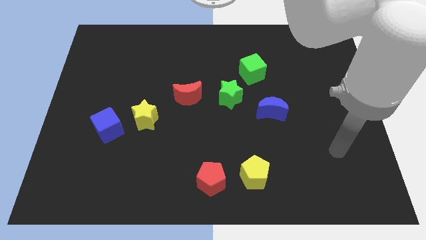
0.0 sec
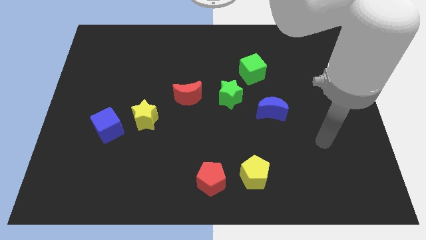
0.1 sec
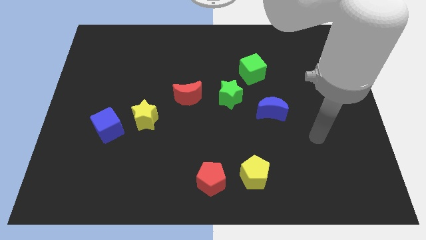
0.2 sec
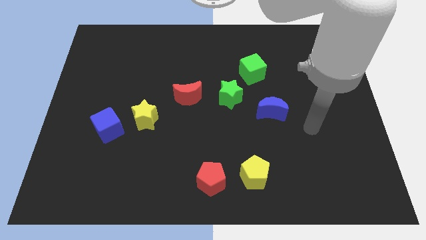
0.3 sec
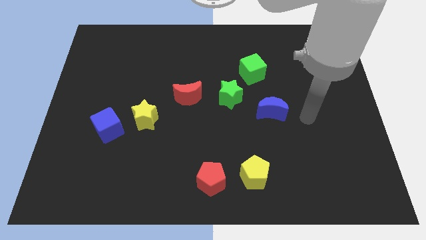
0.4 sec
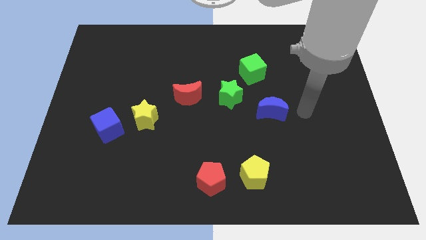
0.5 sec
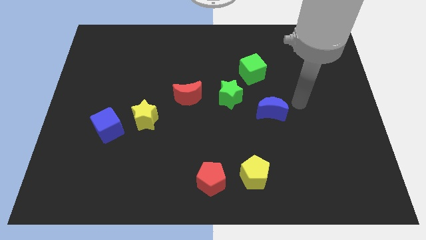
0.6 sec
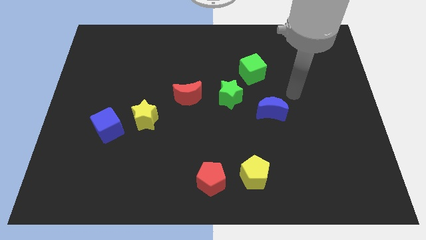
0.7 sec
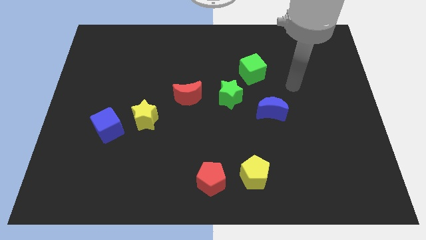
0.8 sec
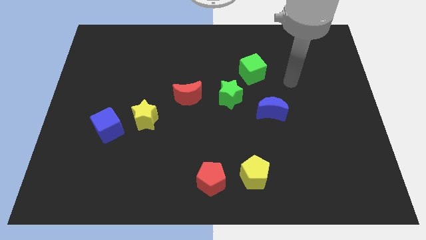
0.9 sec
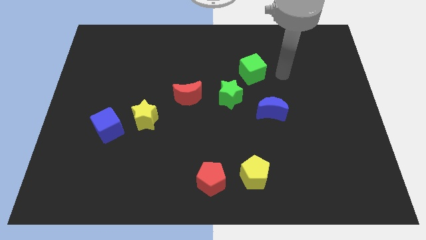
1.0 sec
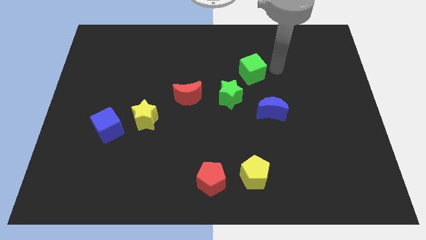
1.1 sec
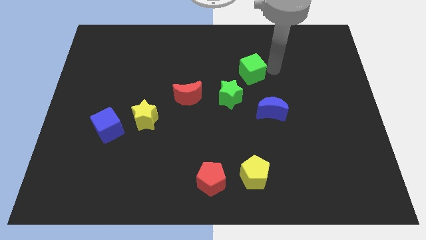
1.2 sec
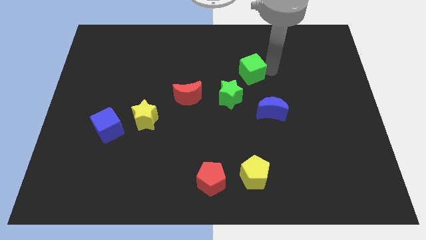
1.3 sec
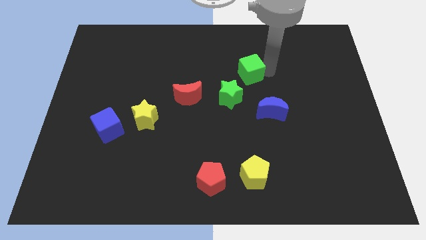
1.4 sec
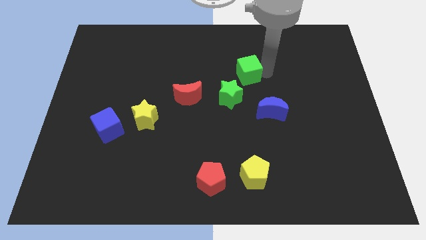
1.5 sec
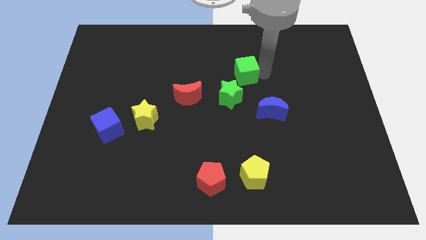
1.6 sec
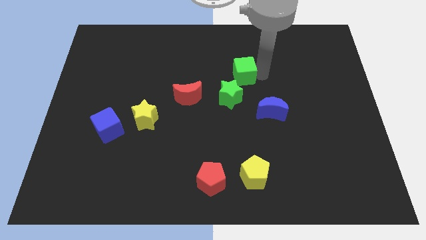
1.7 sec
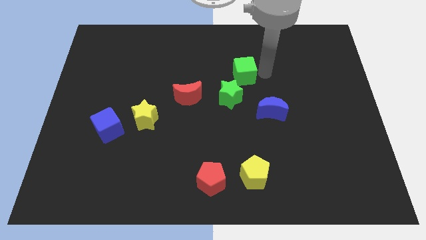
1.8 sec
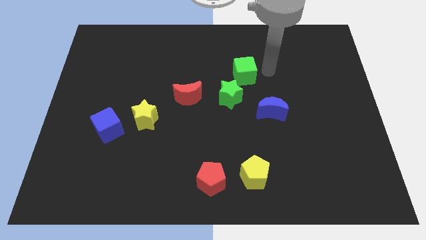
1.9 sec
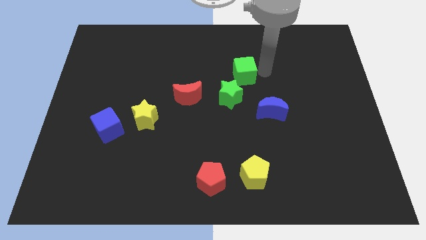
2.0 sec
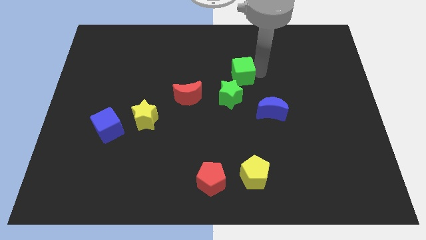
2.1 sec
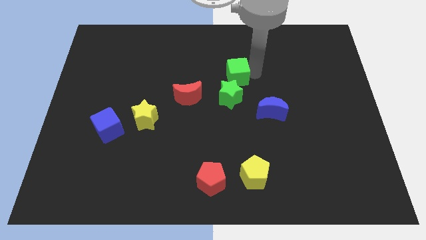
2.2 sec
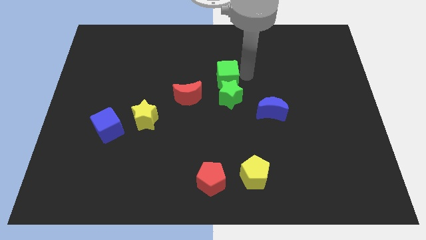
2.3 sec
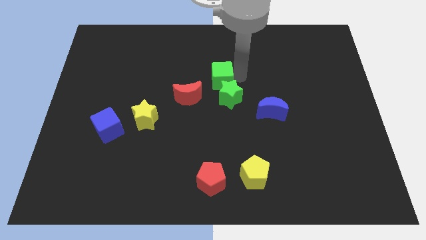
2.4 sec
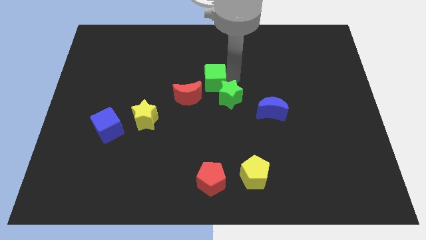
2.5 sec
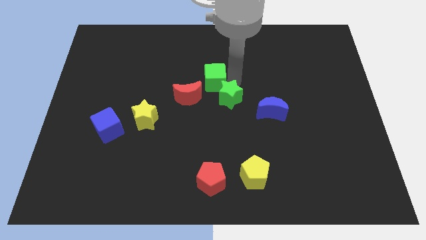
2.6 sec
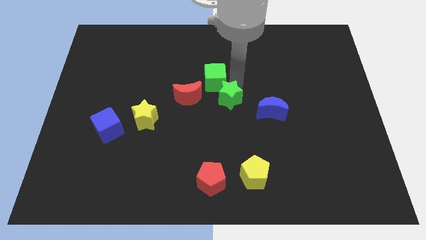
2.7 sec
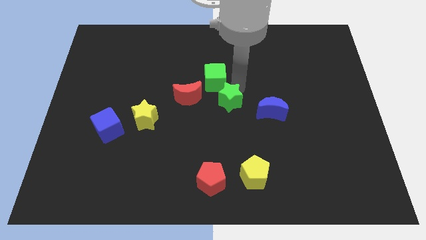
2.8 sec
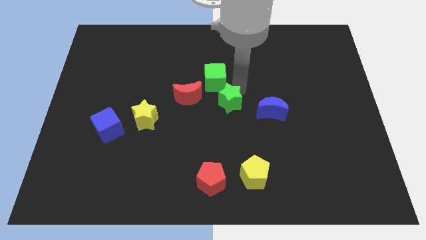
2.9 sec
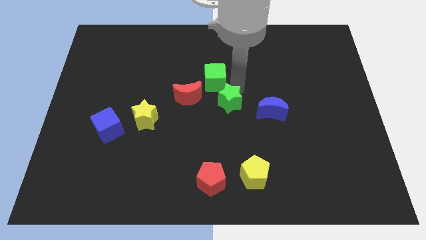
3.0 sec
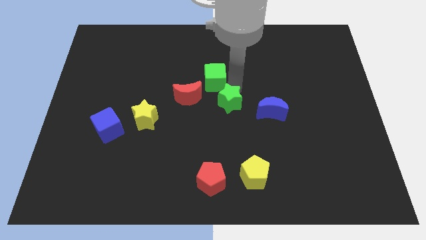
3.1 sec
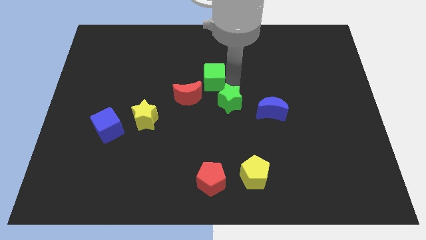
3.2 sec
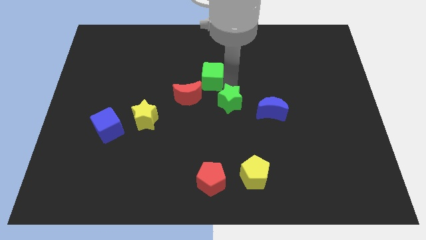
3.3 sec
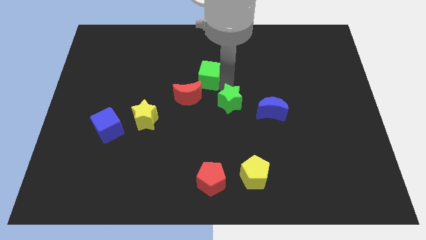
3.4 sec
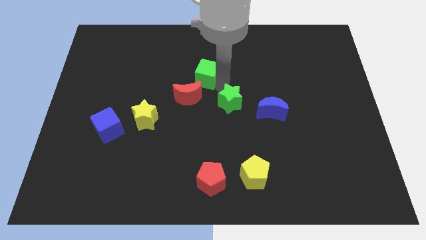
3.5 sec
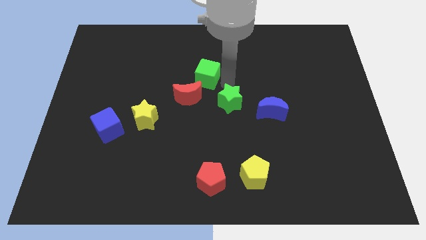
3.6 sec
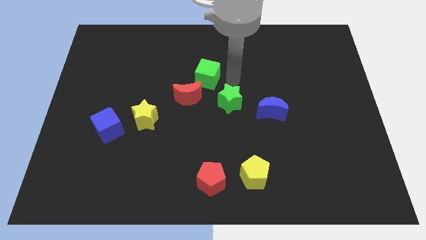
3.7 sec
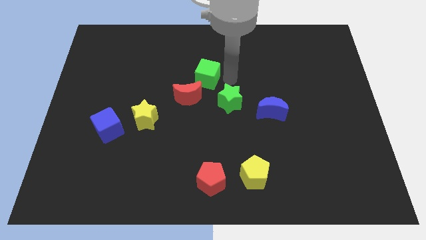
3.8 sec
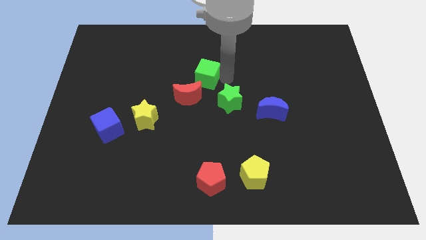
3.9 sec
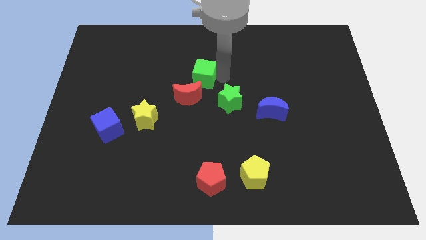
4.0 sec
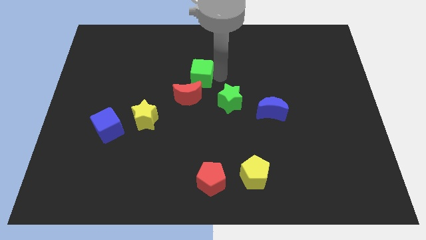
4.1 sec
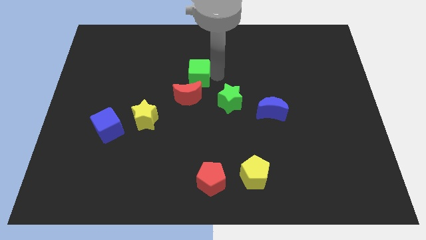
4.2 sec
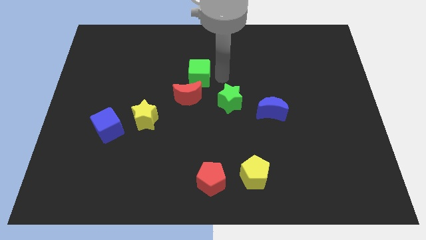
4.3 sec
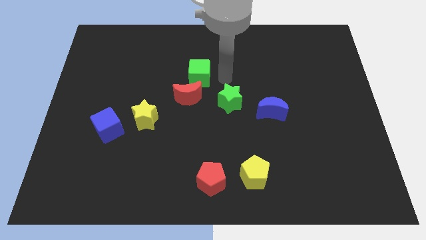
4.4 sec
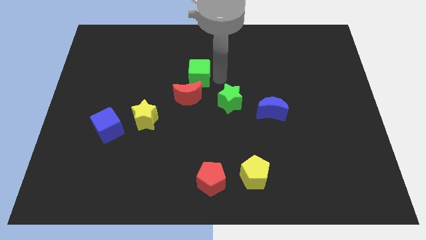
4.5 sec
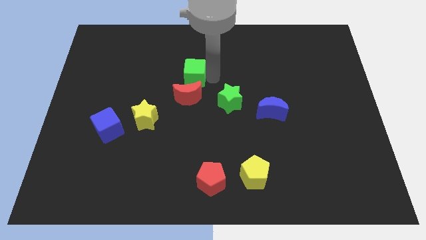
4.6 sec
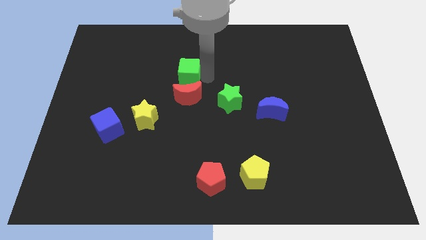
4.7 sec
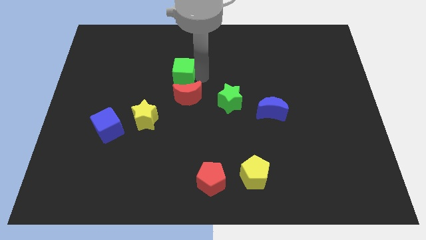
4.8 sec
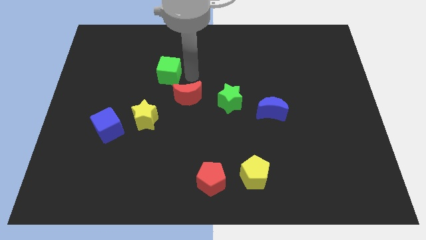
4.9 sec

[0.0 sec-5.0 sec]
push the green cube to the left

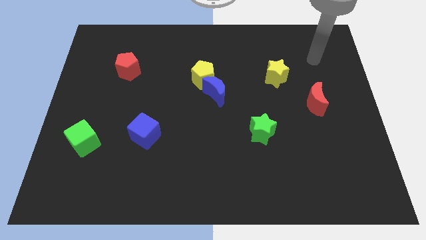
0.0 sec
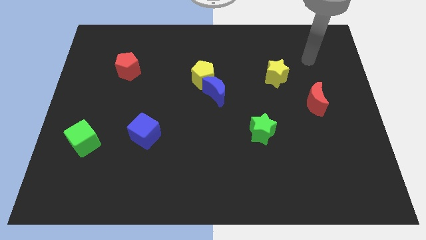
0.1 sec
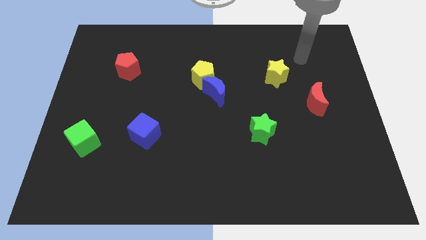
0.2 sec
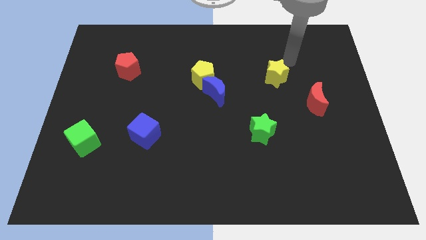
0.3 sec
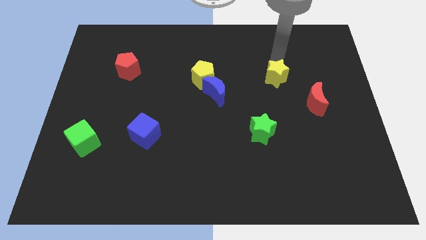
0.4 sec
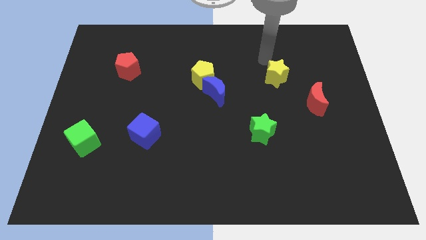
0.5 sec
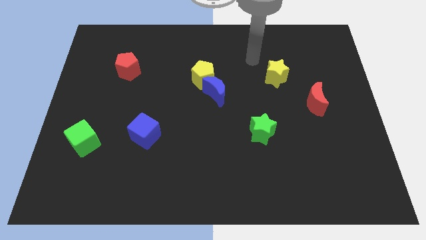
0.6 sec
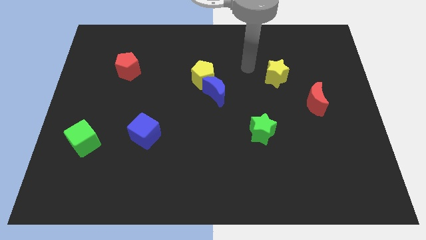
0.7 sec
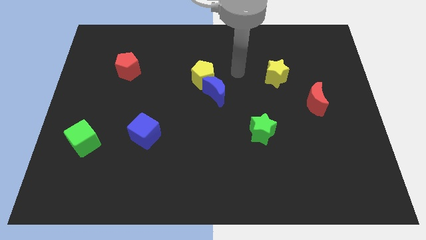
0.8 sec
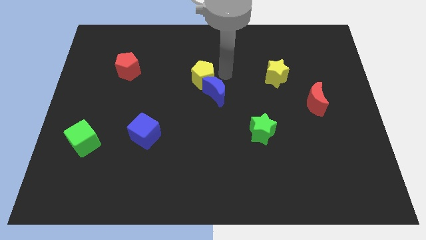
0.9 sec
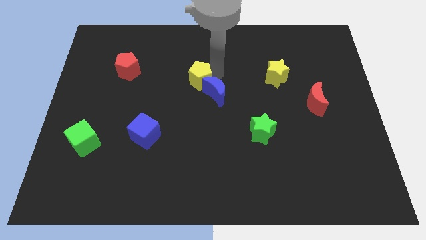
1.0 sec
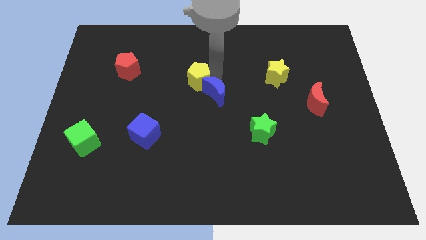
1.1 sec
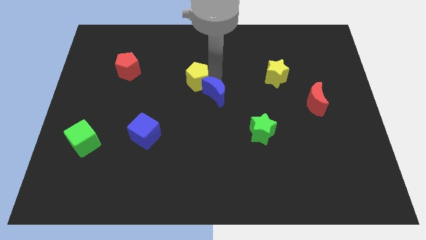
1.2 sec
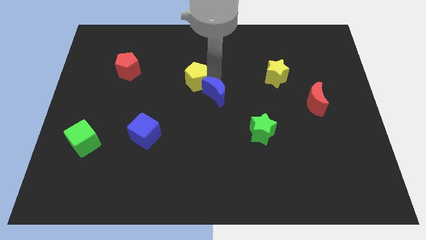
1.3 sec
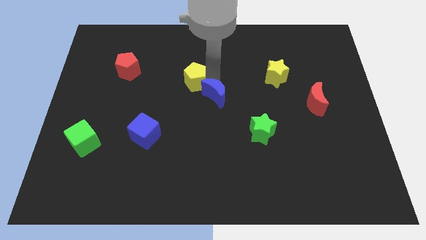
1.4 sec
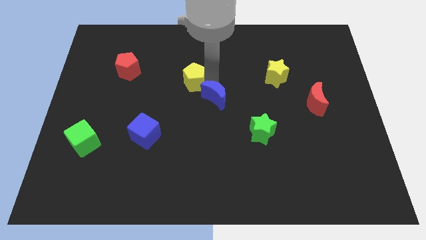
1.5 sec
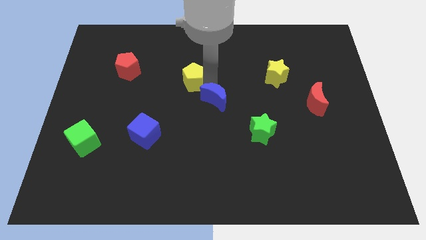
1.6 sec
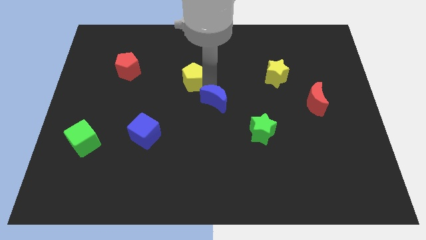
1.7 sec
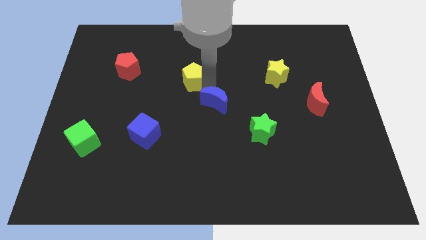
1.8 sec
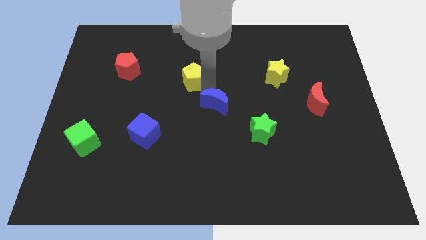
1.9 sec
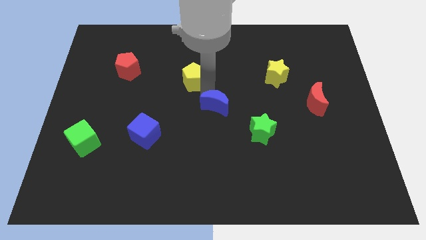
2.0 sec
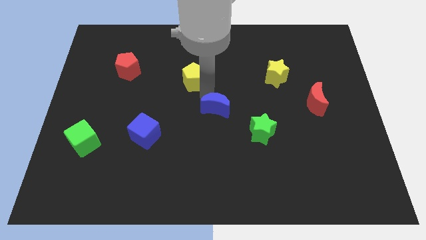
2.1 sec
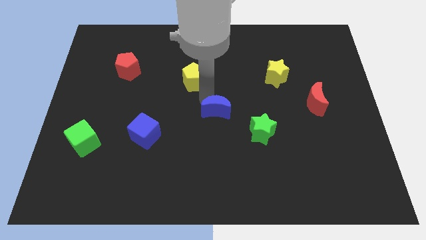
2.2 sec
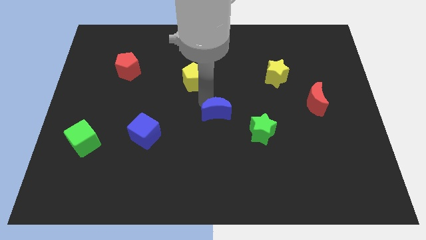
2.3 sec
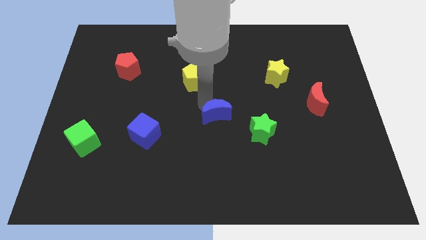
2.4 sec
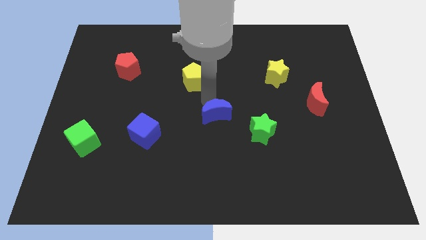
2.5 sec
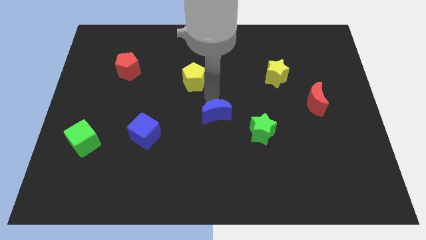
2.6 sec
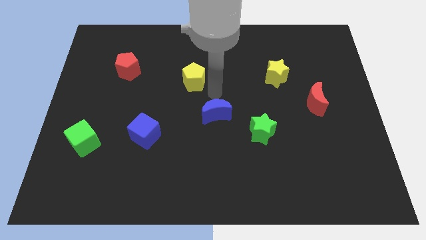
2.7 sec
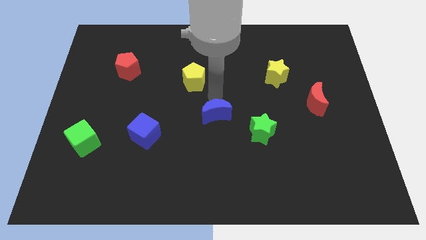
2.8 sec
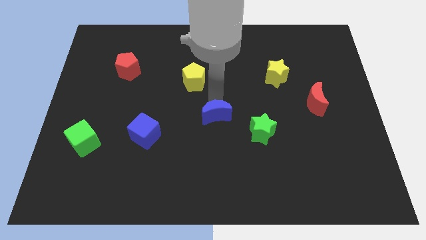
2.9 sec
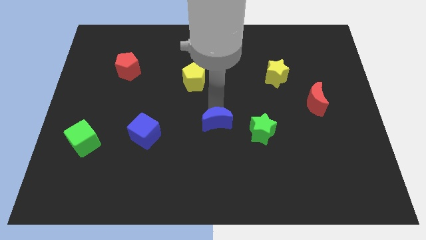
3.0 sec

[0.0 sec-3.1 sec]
slightly slide the blue moon down
